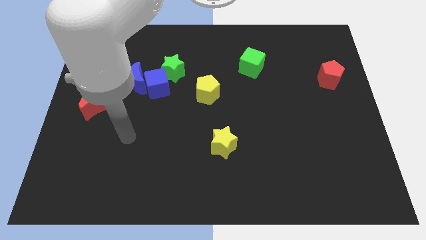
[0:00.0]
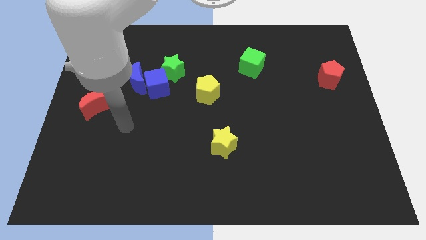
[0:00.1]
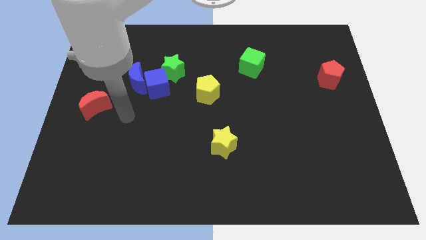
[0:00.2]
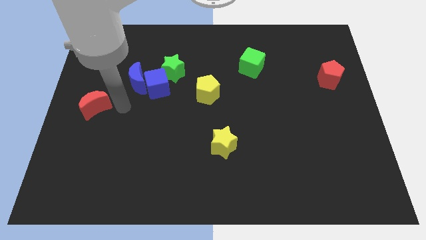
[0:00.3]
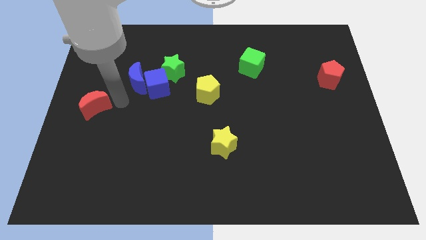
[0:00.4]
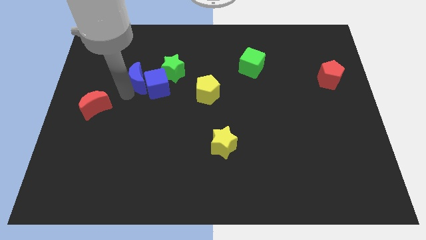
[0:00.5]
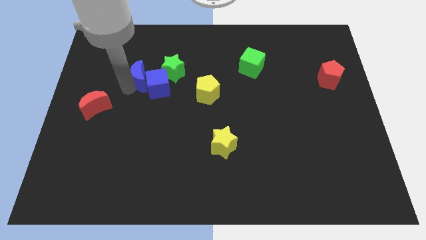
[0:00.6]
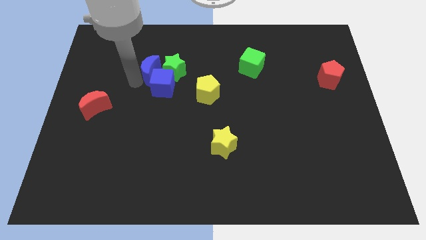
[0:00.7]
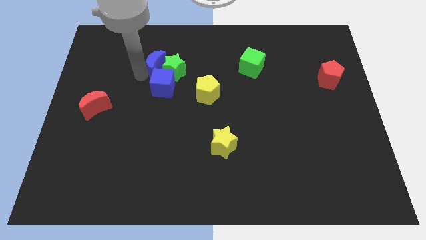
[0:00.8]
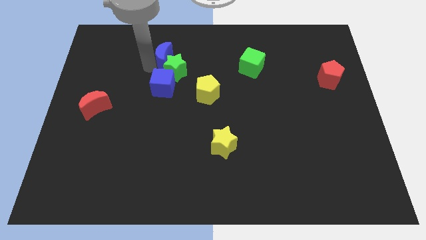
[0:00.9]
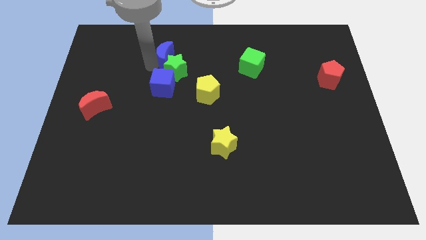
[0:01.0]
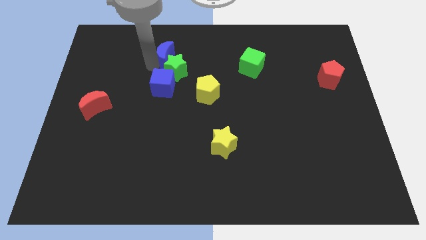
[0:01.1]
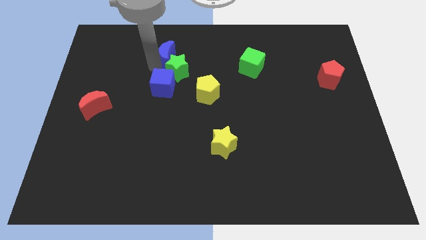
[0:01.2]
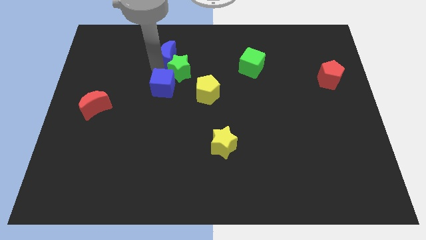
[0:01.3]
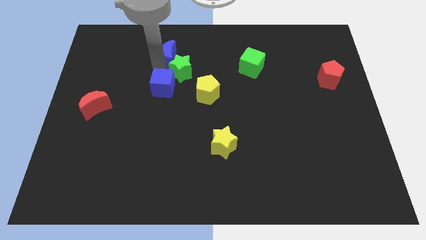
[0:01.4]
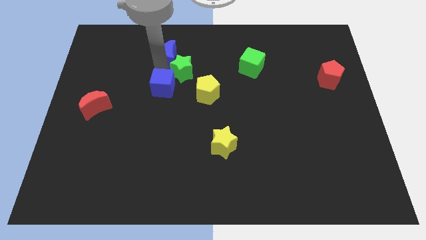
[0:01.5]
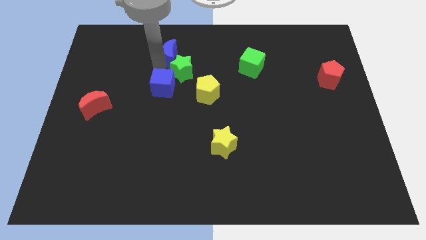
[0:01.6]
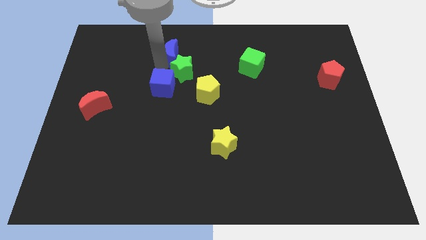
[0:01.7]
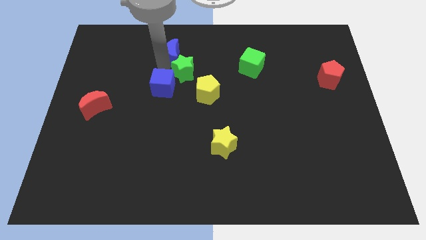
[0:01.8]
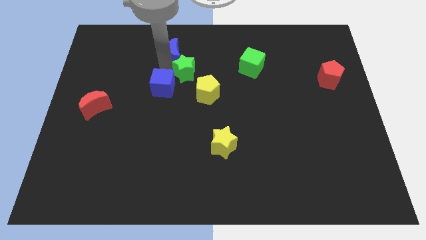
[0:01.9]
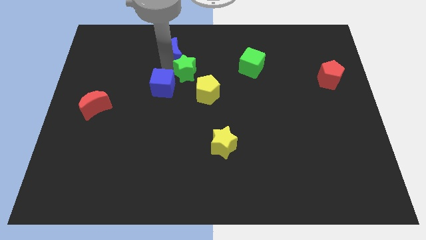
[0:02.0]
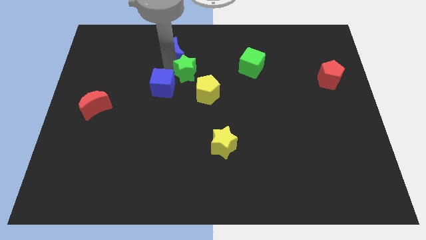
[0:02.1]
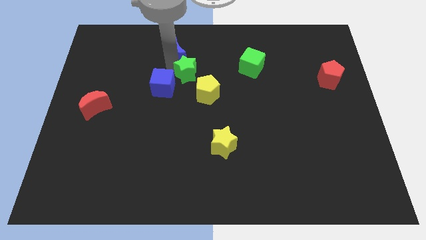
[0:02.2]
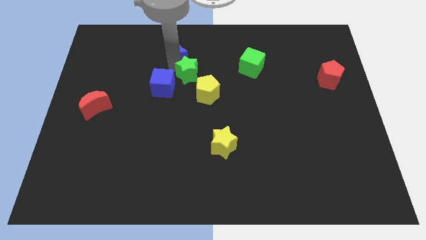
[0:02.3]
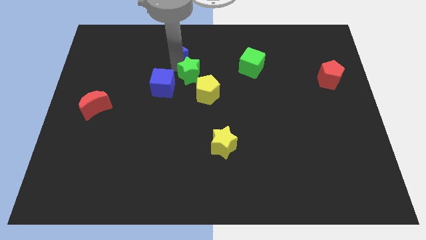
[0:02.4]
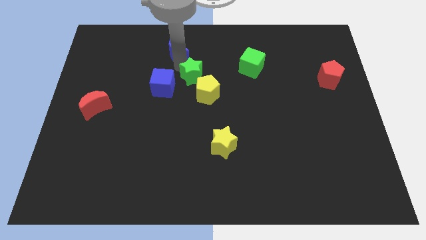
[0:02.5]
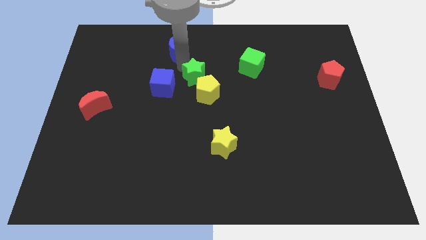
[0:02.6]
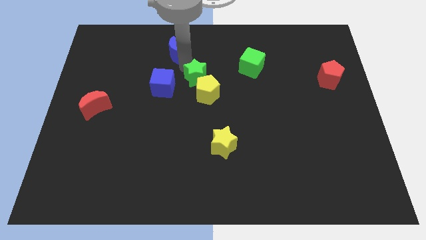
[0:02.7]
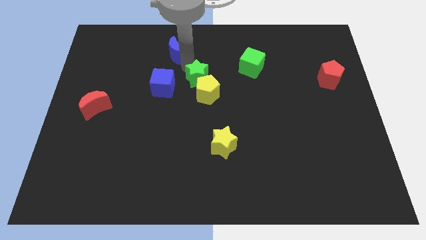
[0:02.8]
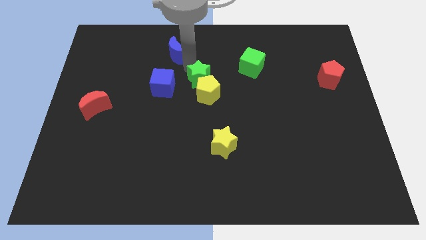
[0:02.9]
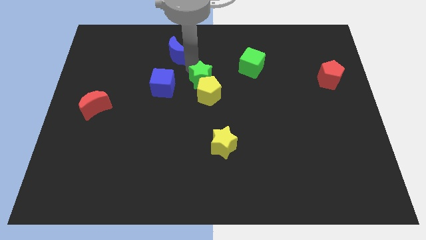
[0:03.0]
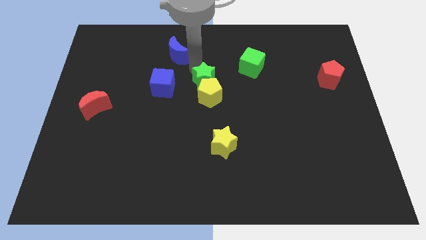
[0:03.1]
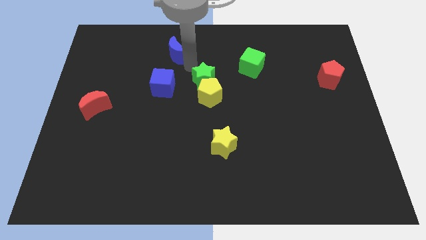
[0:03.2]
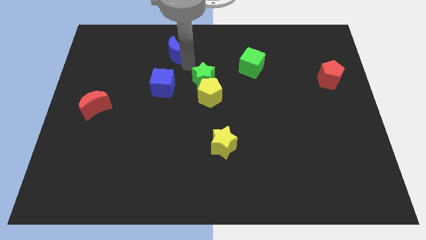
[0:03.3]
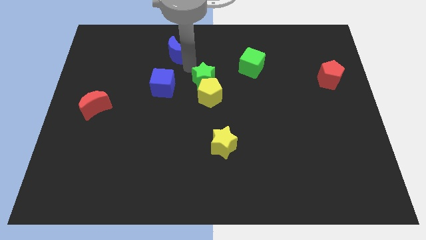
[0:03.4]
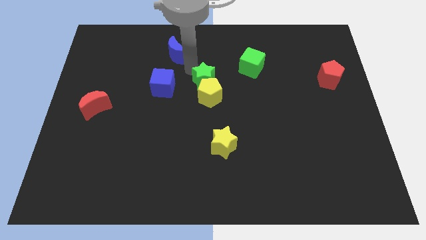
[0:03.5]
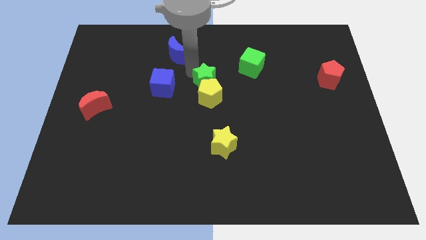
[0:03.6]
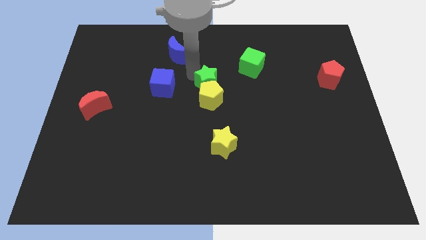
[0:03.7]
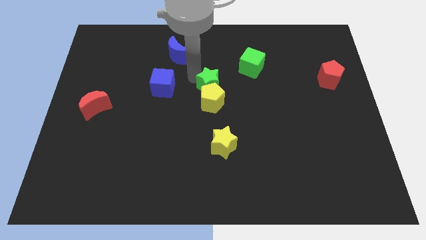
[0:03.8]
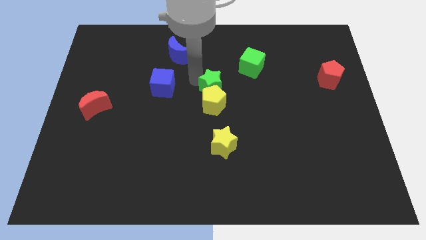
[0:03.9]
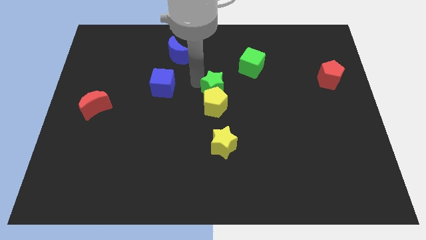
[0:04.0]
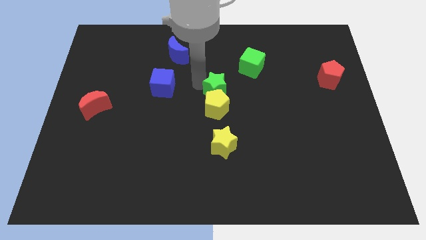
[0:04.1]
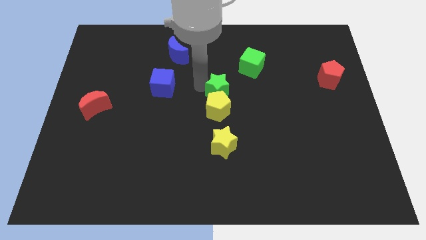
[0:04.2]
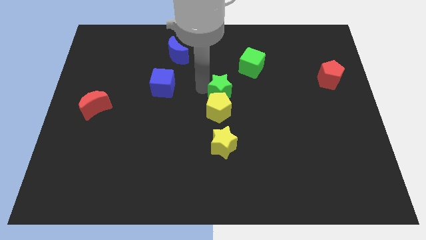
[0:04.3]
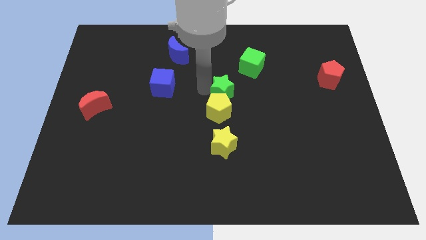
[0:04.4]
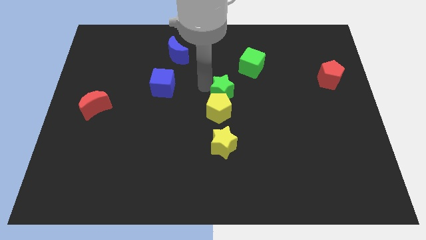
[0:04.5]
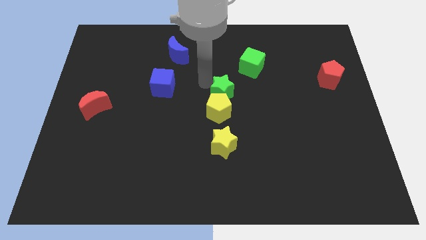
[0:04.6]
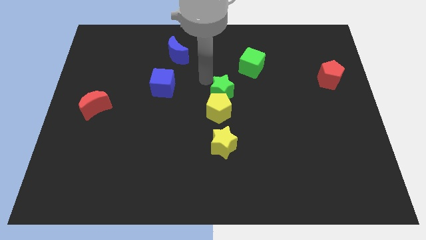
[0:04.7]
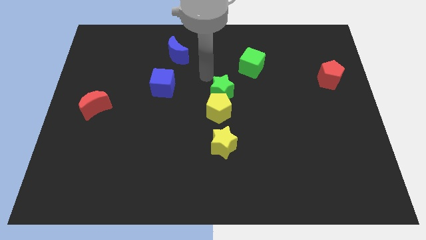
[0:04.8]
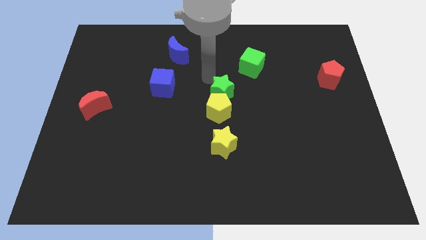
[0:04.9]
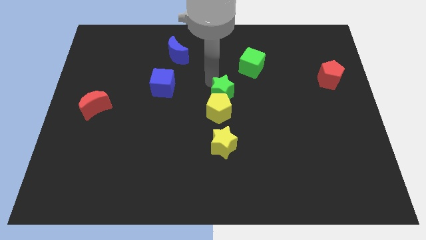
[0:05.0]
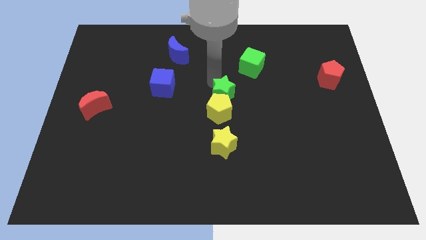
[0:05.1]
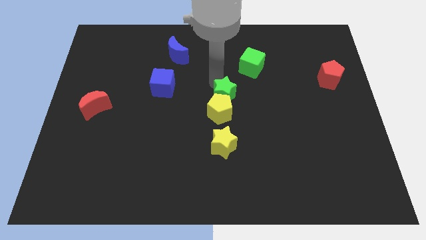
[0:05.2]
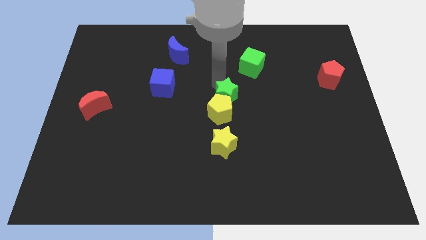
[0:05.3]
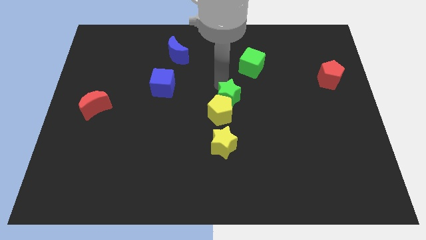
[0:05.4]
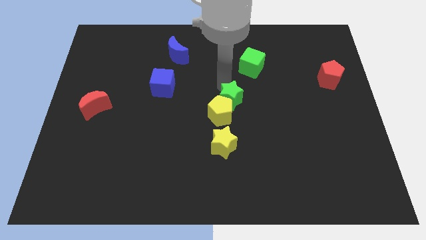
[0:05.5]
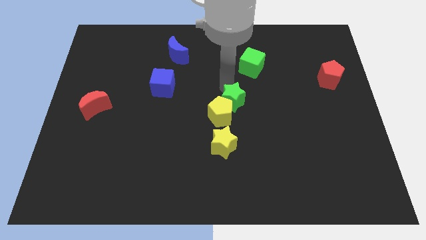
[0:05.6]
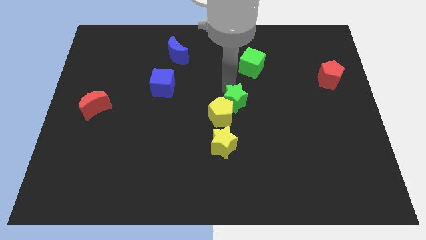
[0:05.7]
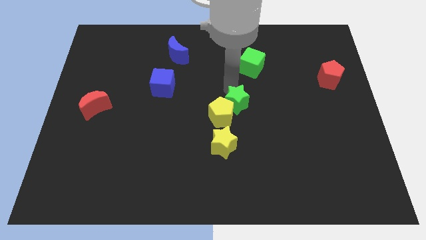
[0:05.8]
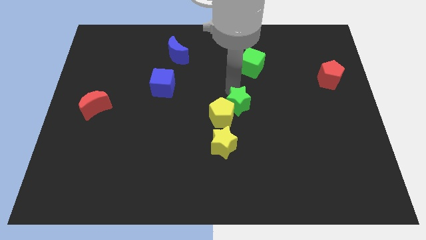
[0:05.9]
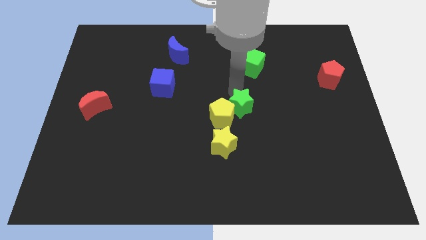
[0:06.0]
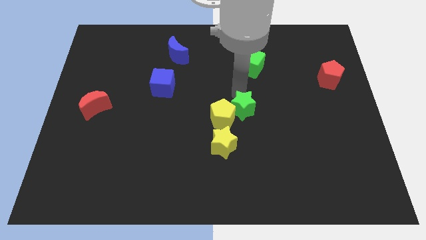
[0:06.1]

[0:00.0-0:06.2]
push the green star downwards and right

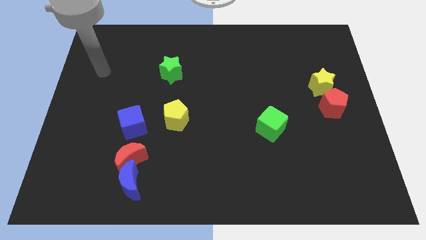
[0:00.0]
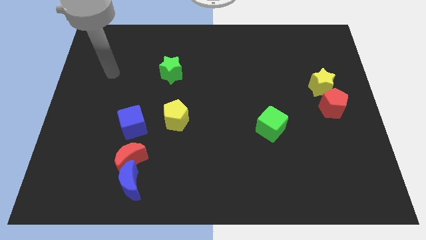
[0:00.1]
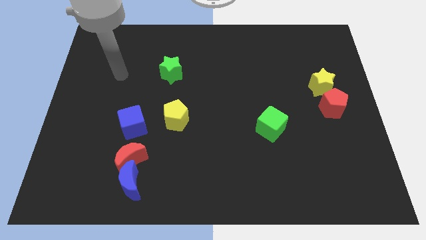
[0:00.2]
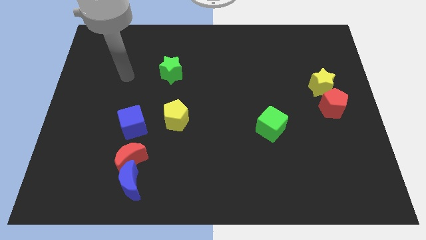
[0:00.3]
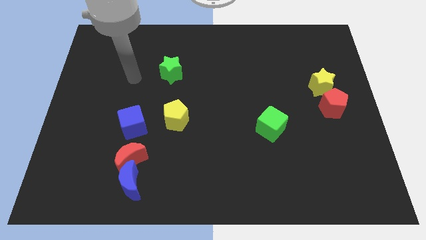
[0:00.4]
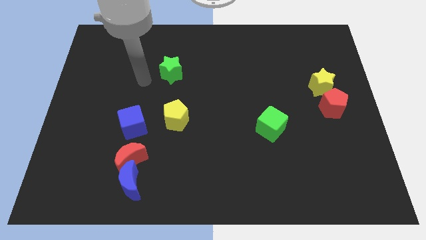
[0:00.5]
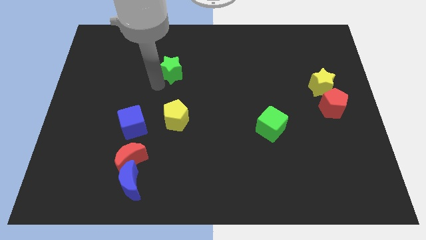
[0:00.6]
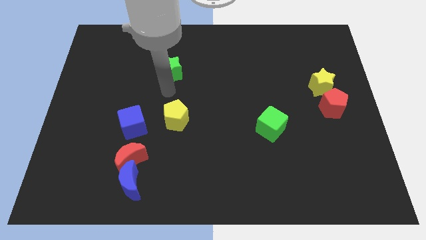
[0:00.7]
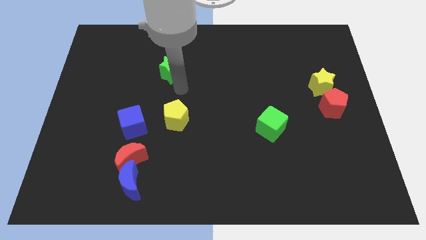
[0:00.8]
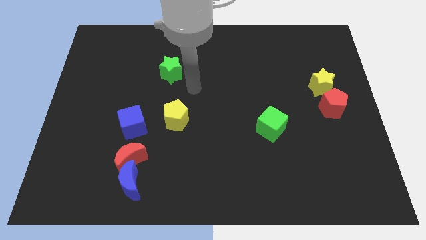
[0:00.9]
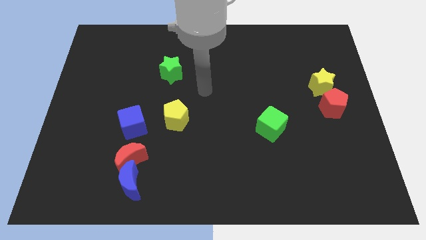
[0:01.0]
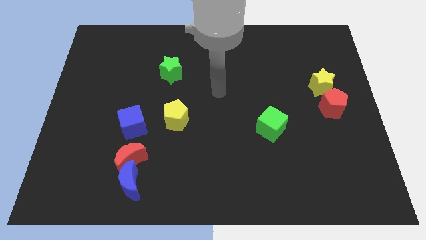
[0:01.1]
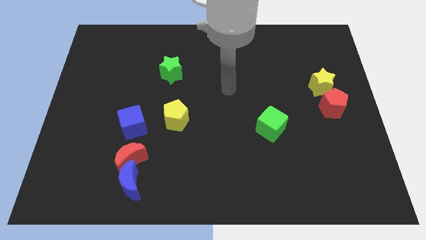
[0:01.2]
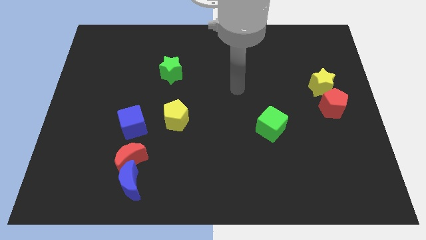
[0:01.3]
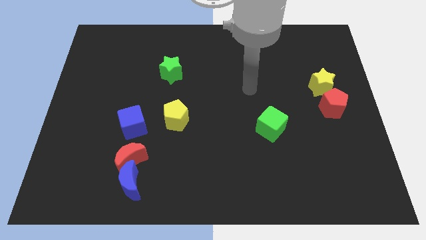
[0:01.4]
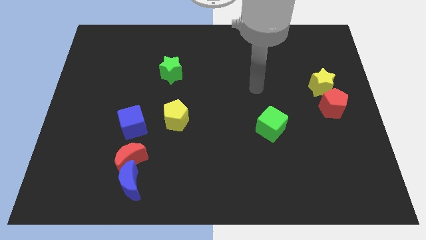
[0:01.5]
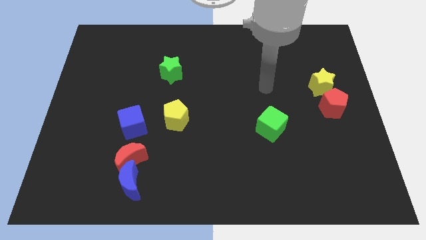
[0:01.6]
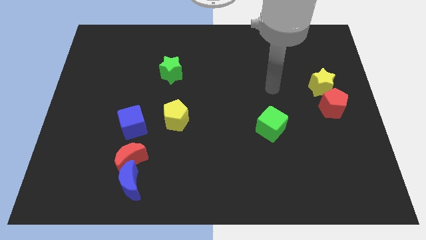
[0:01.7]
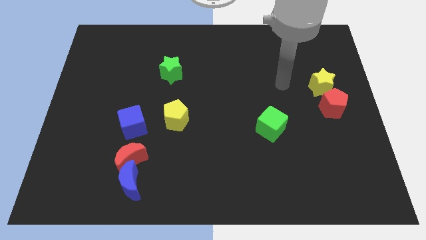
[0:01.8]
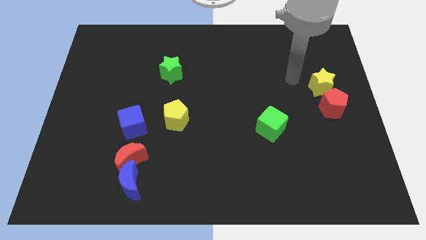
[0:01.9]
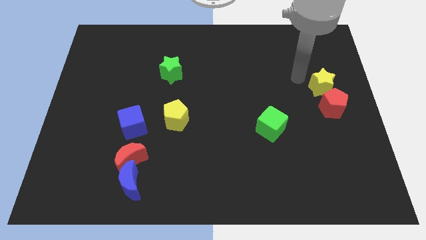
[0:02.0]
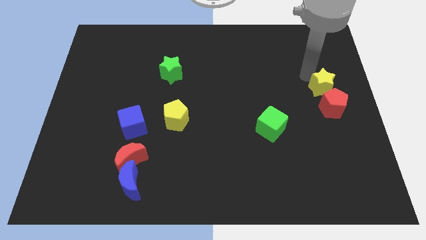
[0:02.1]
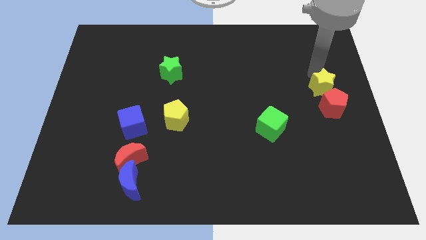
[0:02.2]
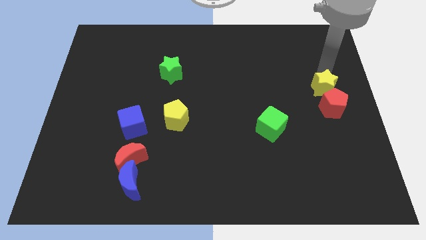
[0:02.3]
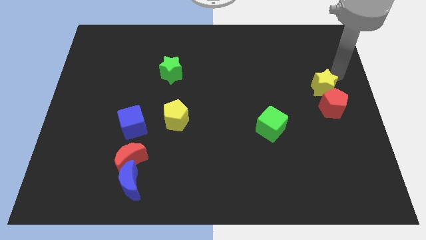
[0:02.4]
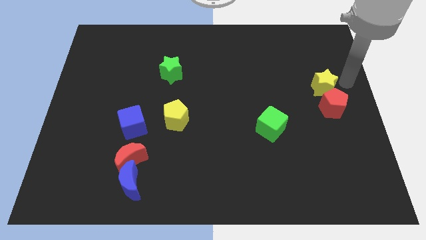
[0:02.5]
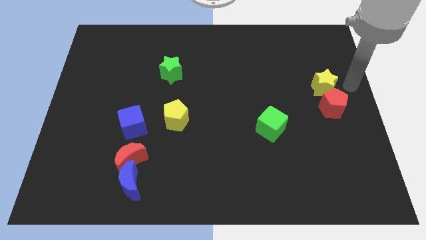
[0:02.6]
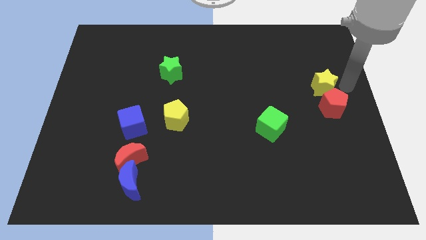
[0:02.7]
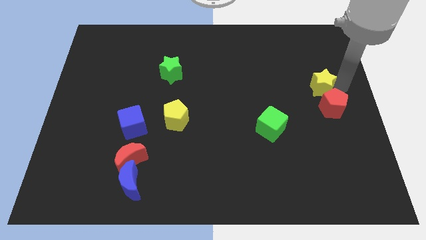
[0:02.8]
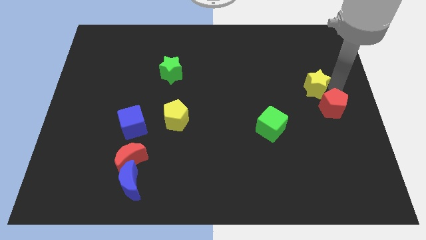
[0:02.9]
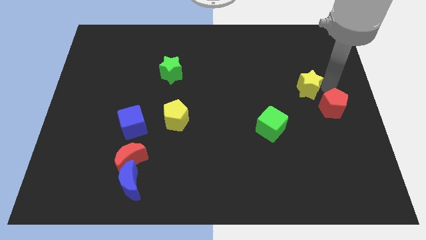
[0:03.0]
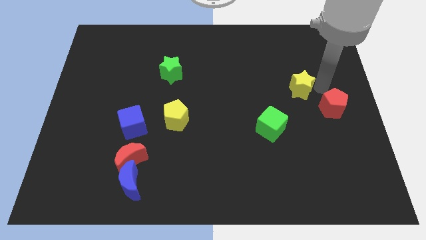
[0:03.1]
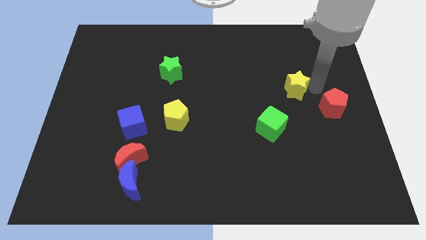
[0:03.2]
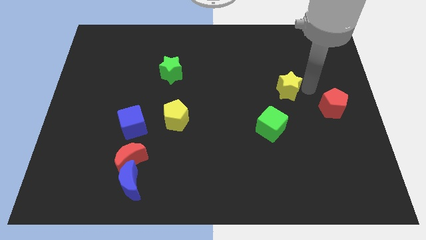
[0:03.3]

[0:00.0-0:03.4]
push the yellow star somewhat left
